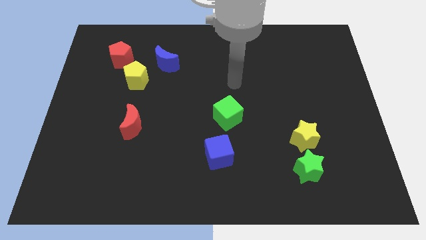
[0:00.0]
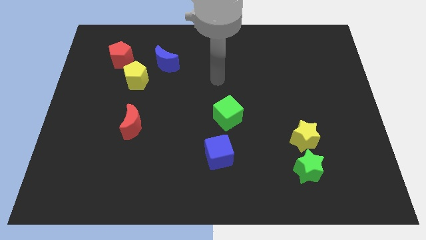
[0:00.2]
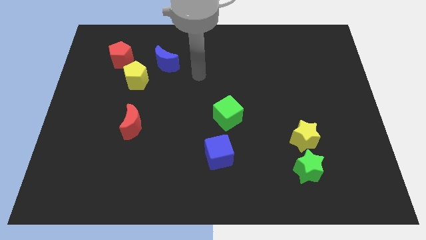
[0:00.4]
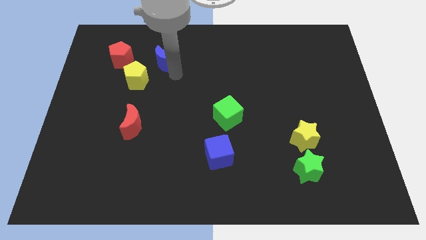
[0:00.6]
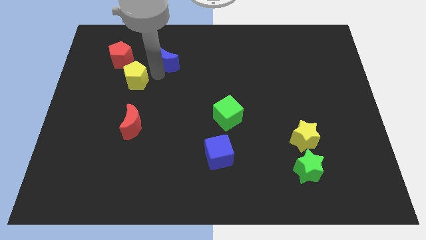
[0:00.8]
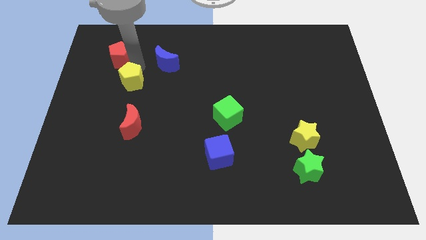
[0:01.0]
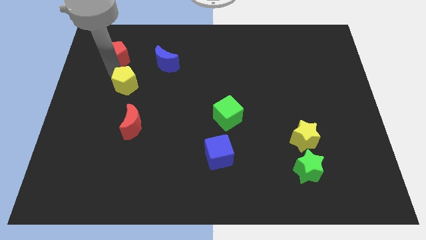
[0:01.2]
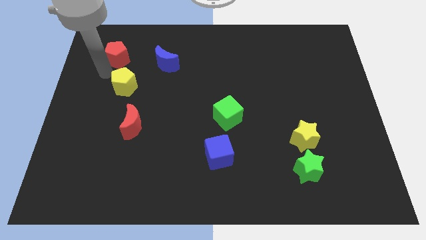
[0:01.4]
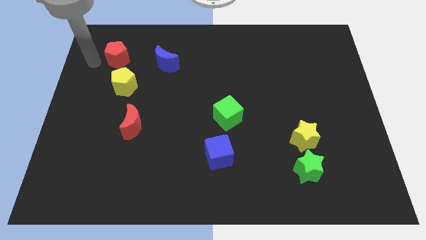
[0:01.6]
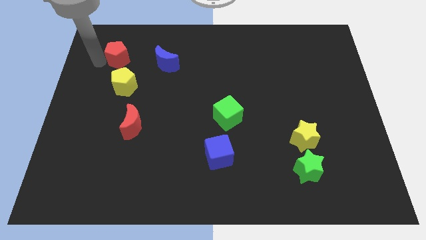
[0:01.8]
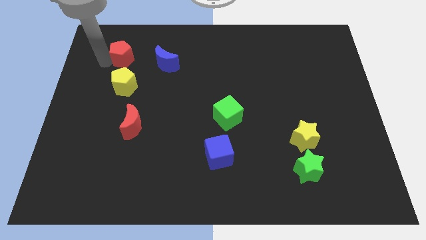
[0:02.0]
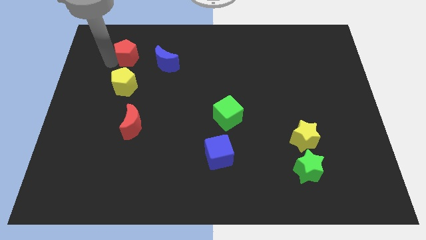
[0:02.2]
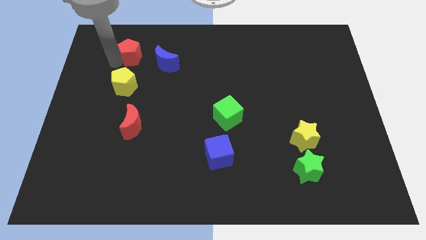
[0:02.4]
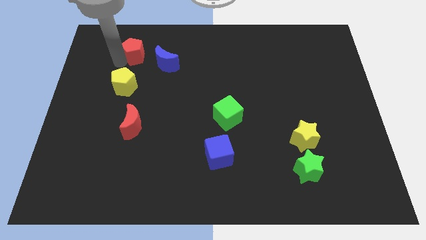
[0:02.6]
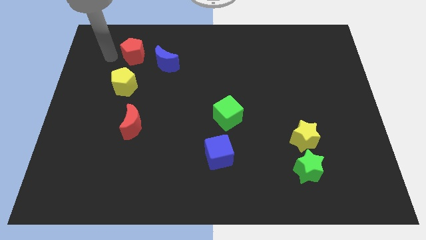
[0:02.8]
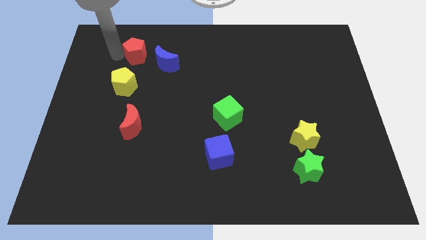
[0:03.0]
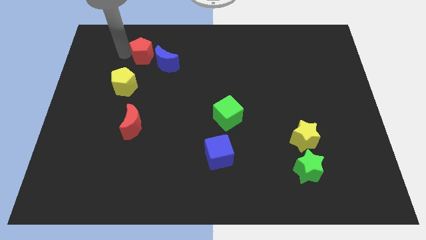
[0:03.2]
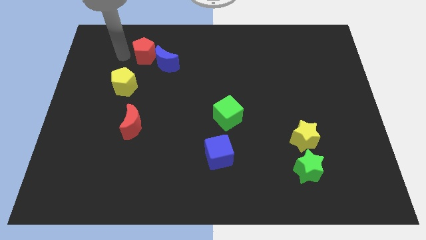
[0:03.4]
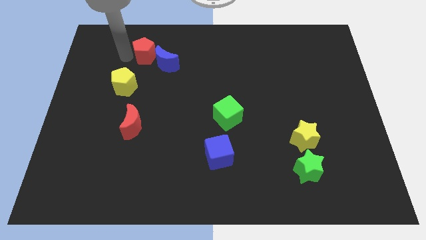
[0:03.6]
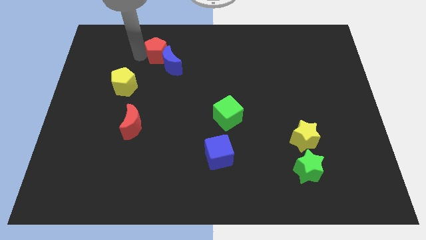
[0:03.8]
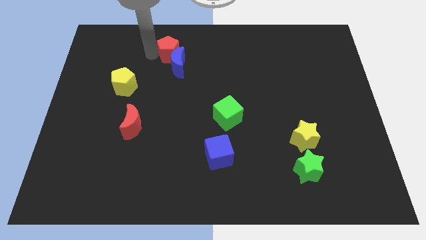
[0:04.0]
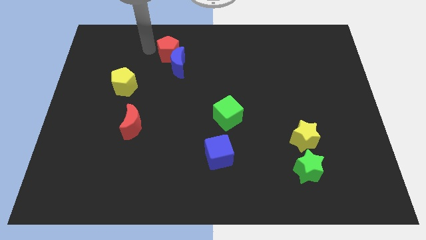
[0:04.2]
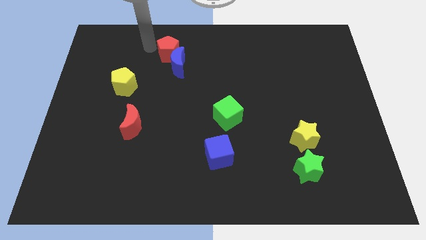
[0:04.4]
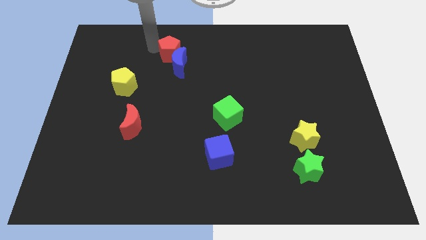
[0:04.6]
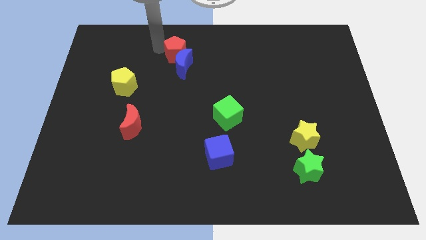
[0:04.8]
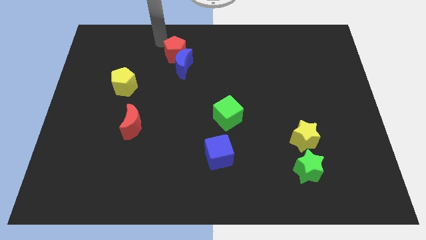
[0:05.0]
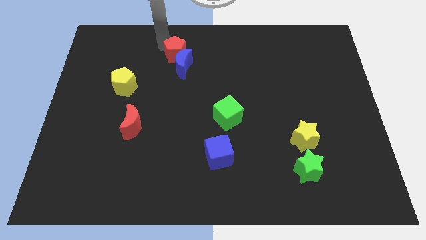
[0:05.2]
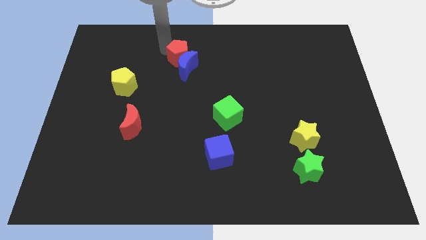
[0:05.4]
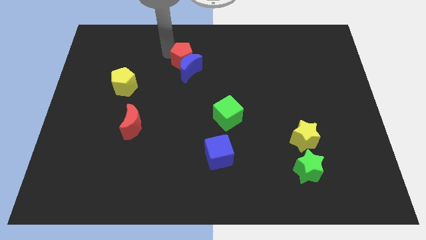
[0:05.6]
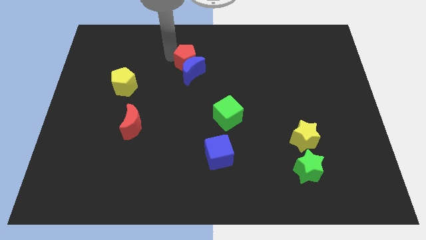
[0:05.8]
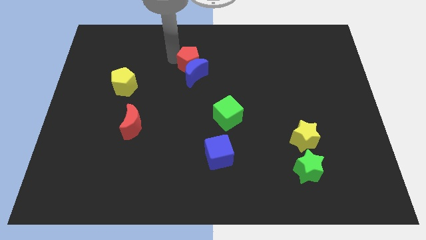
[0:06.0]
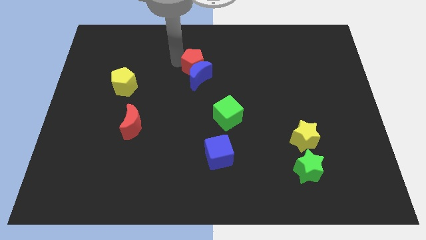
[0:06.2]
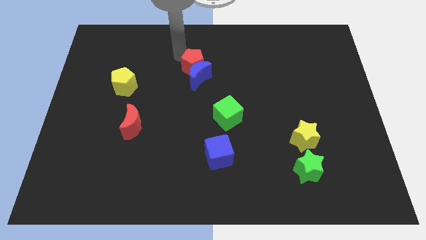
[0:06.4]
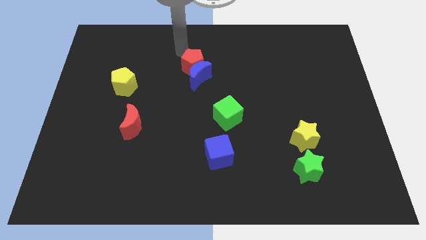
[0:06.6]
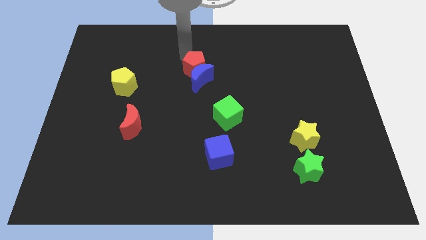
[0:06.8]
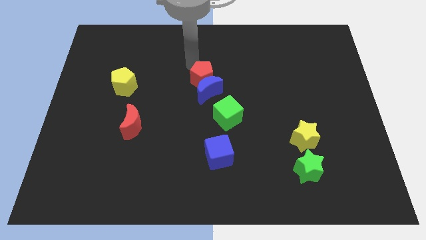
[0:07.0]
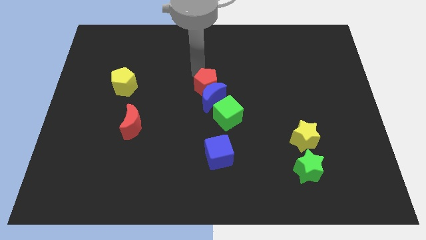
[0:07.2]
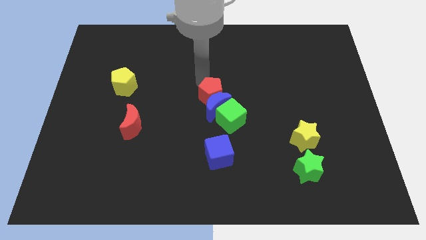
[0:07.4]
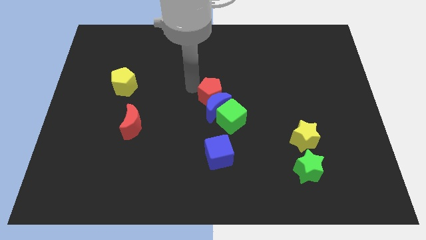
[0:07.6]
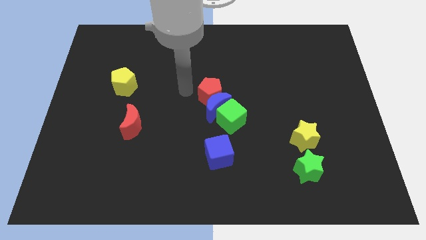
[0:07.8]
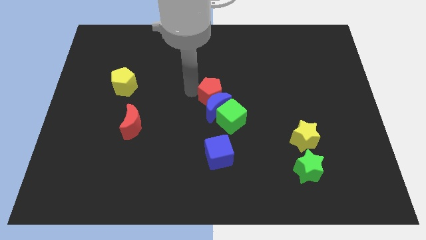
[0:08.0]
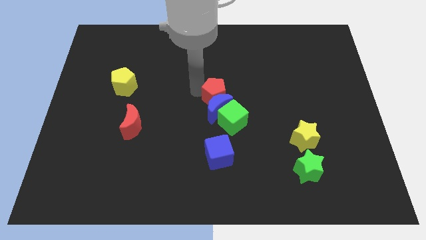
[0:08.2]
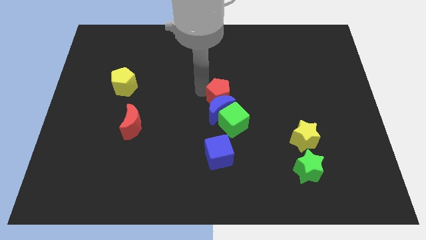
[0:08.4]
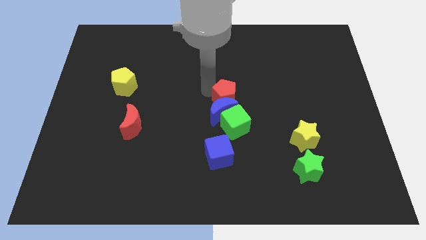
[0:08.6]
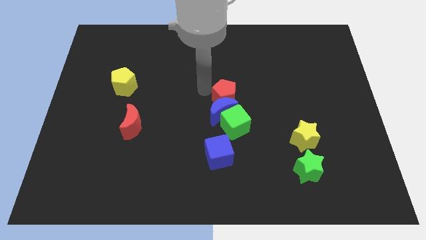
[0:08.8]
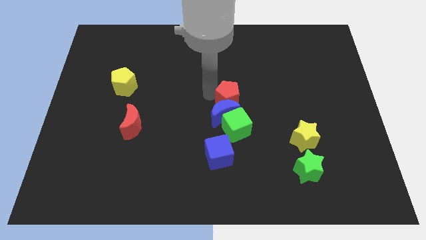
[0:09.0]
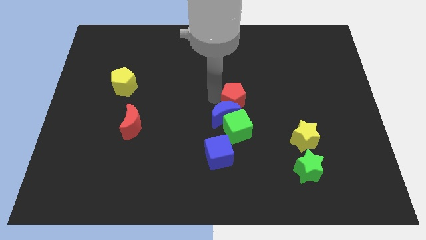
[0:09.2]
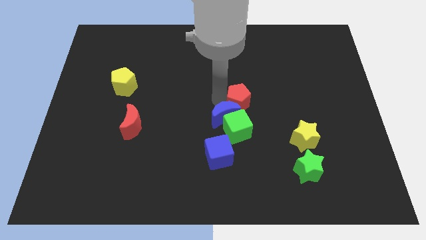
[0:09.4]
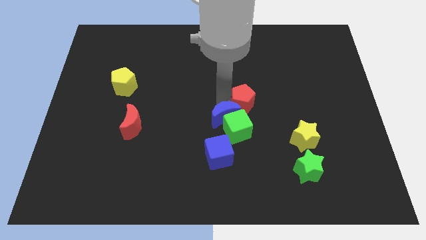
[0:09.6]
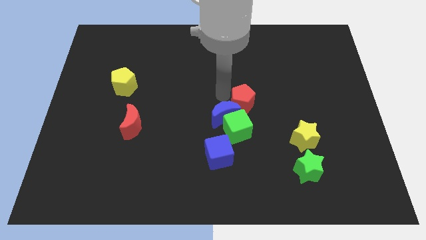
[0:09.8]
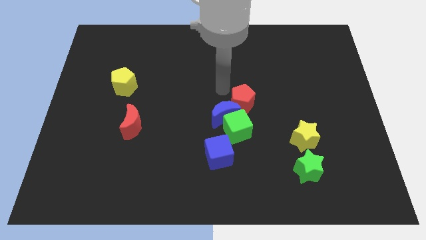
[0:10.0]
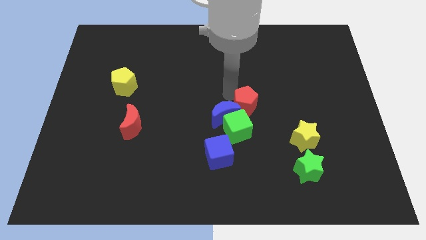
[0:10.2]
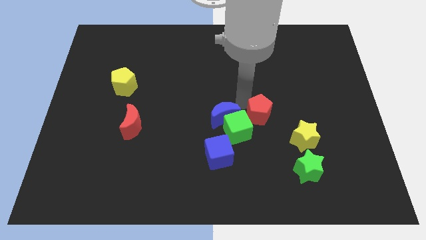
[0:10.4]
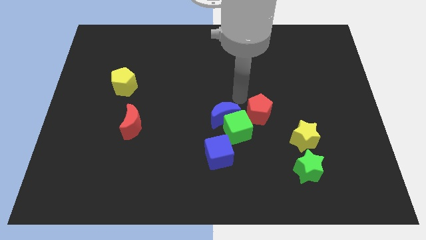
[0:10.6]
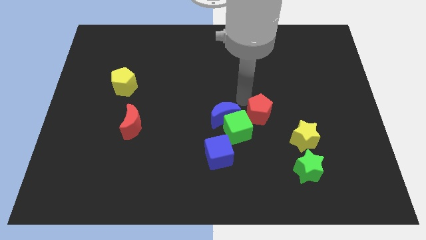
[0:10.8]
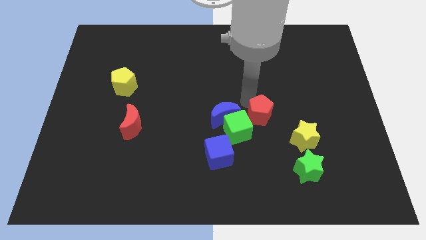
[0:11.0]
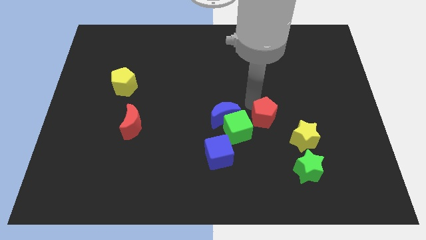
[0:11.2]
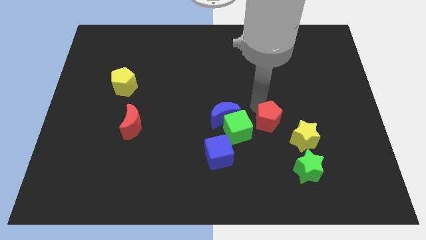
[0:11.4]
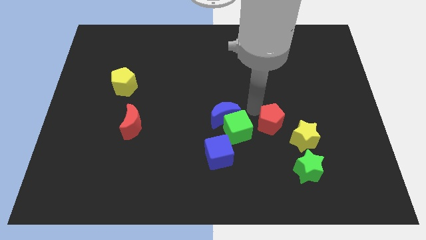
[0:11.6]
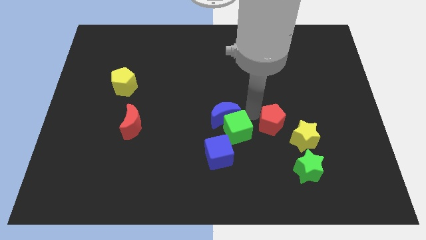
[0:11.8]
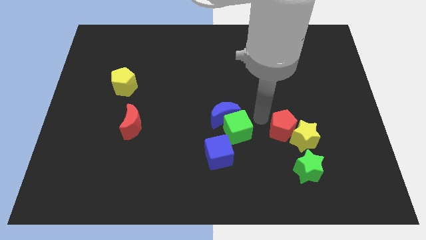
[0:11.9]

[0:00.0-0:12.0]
put the red pentagon close to the yellow star

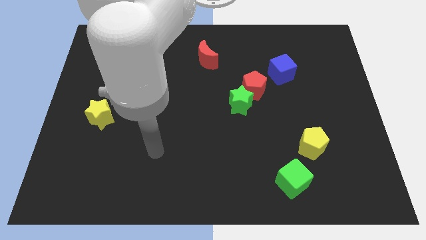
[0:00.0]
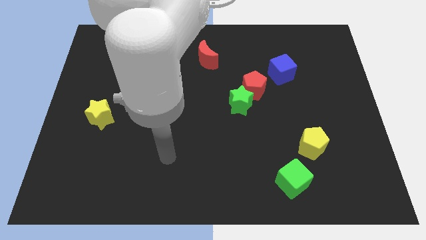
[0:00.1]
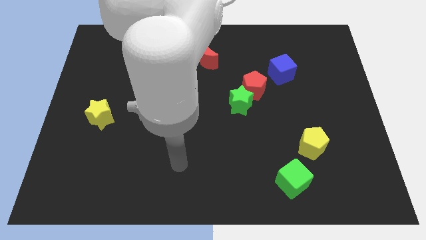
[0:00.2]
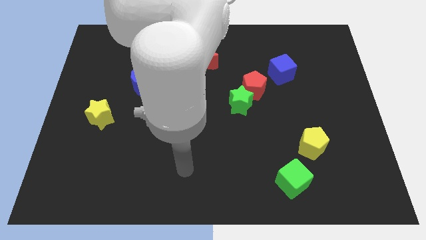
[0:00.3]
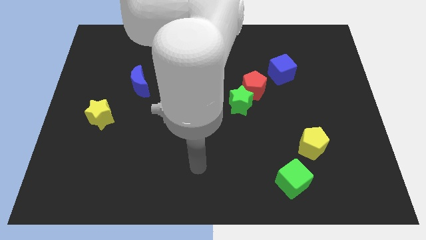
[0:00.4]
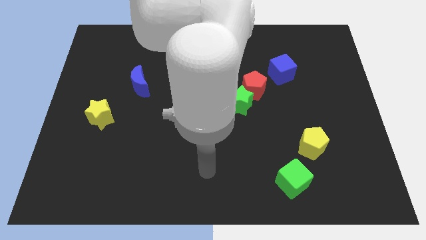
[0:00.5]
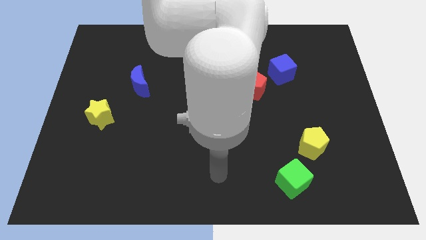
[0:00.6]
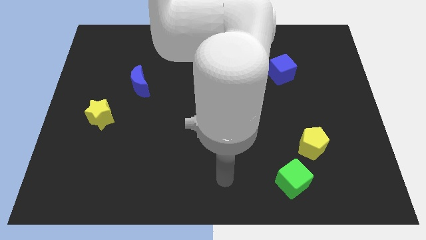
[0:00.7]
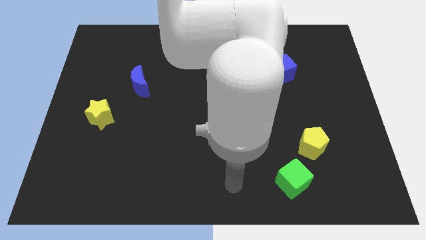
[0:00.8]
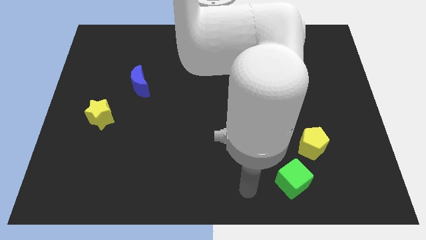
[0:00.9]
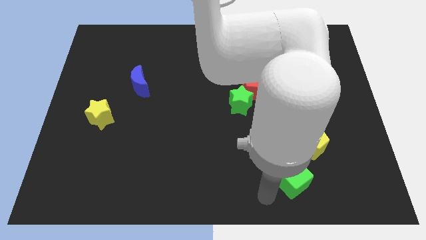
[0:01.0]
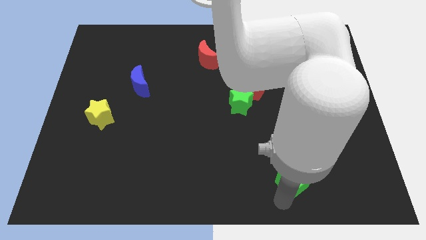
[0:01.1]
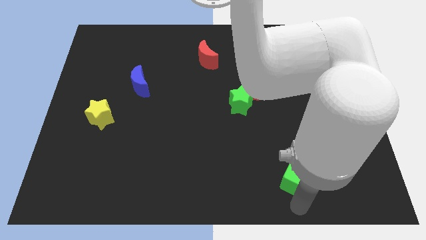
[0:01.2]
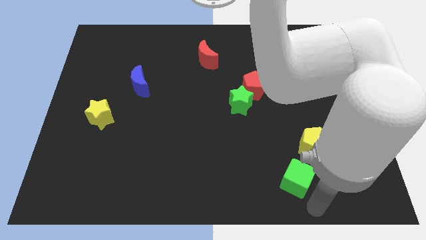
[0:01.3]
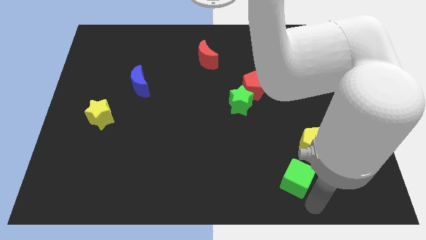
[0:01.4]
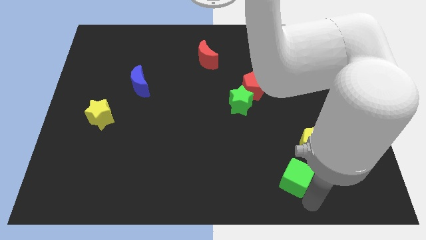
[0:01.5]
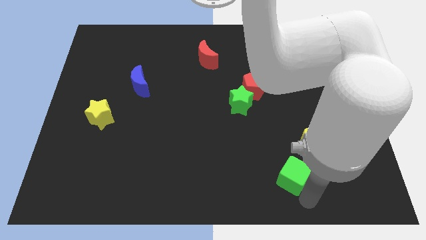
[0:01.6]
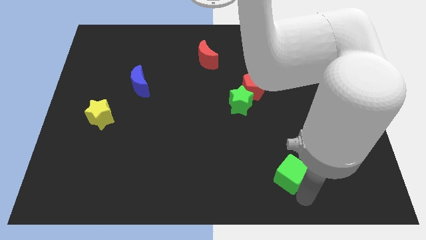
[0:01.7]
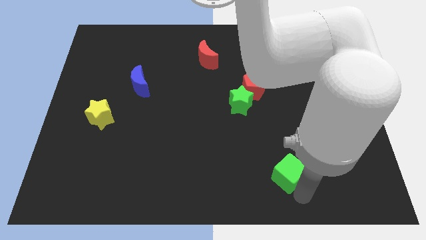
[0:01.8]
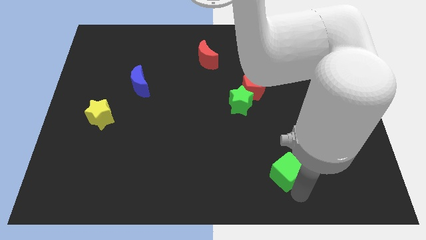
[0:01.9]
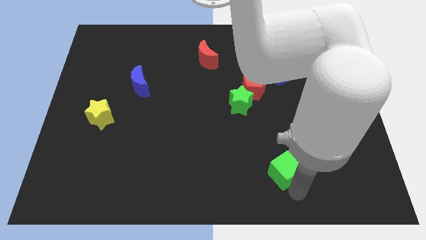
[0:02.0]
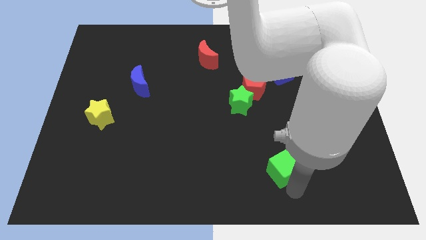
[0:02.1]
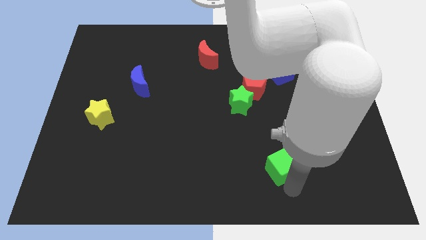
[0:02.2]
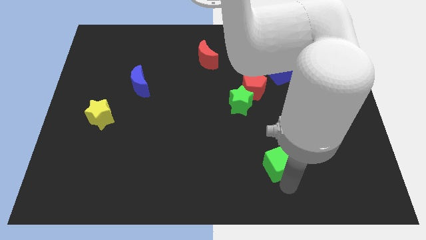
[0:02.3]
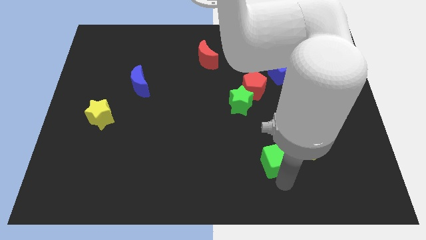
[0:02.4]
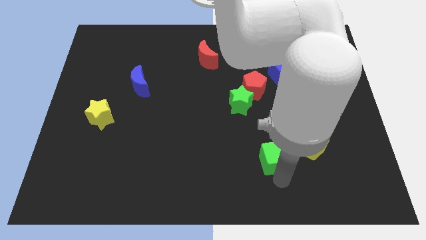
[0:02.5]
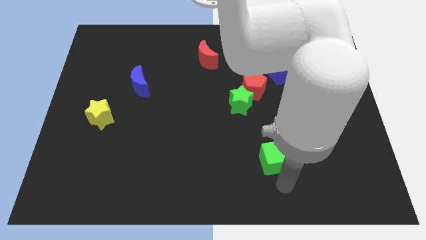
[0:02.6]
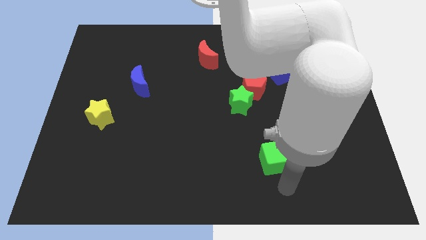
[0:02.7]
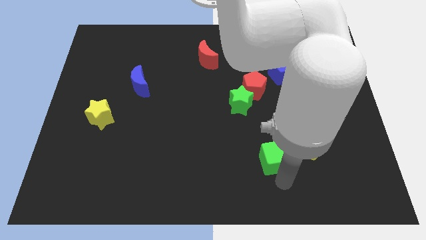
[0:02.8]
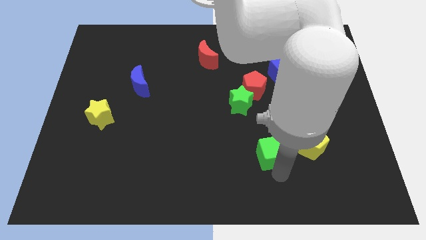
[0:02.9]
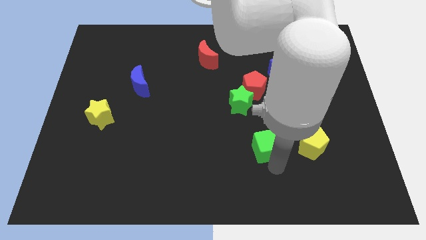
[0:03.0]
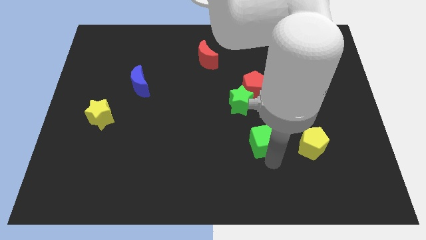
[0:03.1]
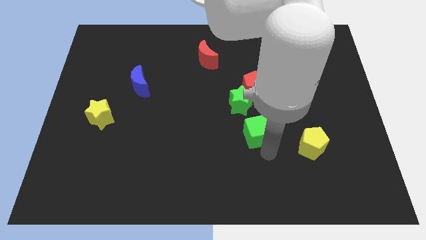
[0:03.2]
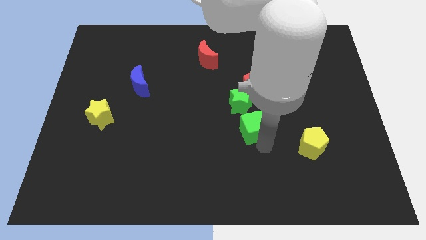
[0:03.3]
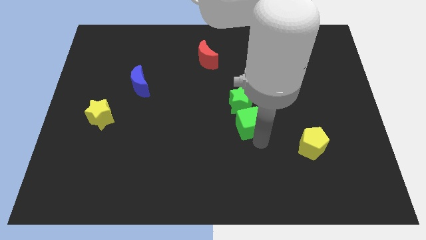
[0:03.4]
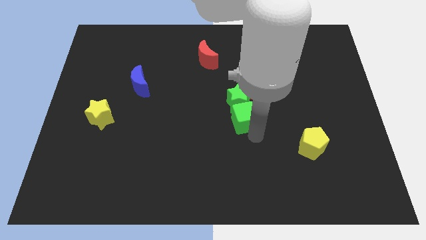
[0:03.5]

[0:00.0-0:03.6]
move the green cube close to the green star
